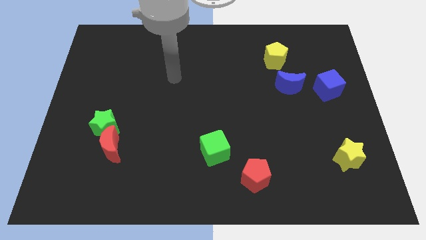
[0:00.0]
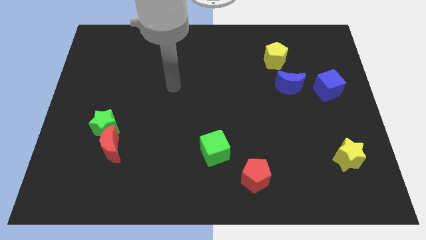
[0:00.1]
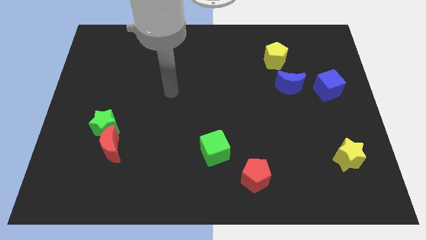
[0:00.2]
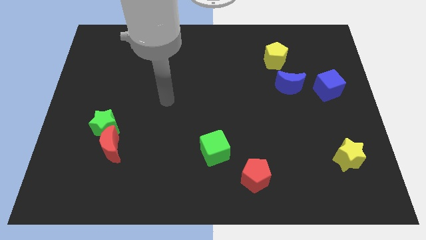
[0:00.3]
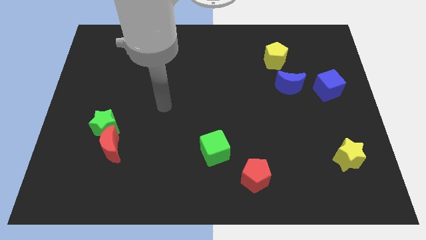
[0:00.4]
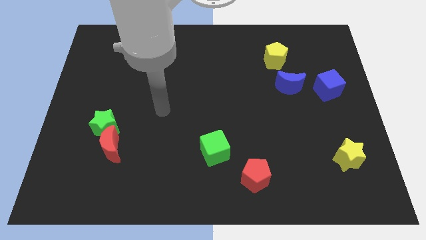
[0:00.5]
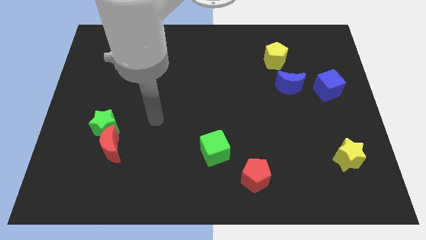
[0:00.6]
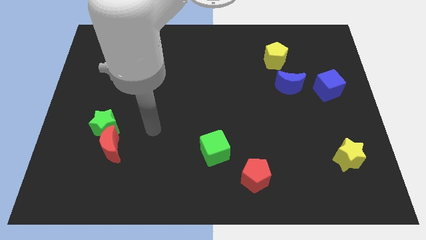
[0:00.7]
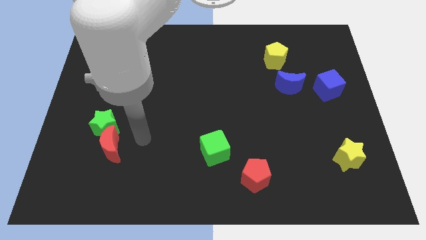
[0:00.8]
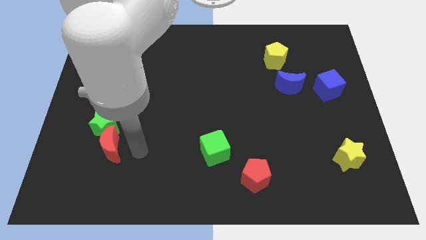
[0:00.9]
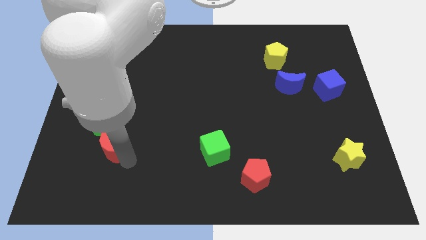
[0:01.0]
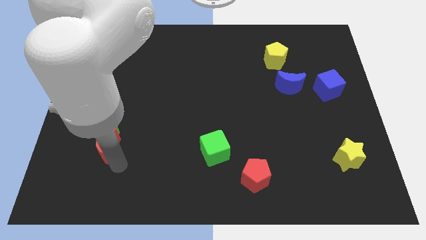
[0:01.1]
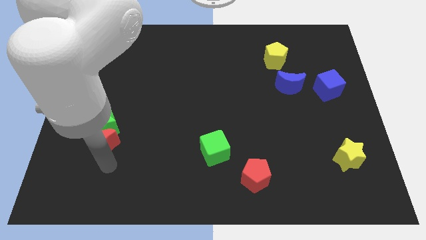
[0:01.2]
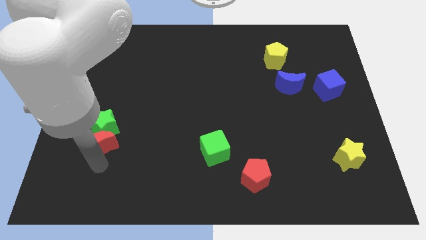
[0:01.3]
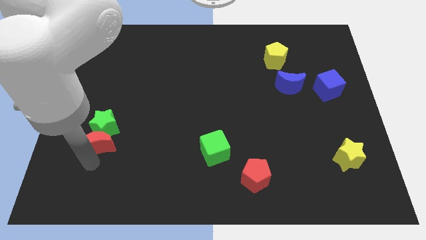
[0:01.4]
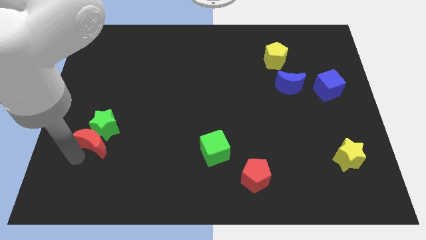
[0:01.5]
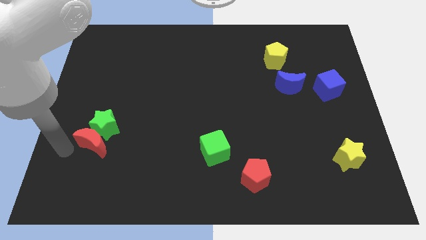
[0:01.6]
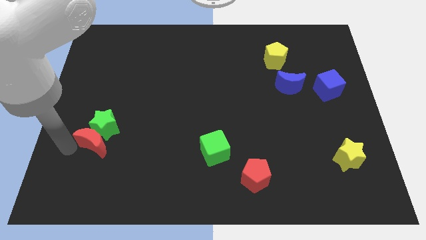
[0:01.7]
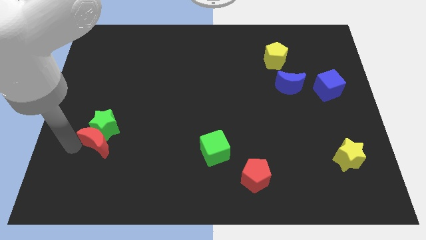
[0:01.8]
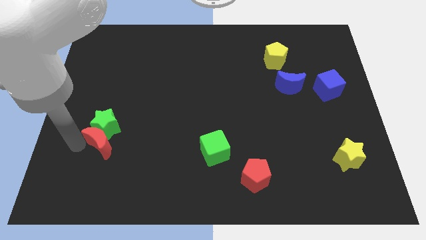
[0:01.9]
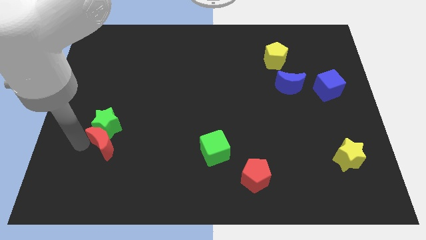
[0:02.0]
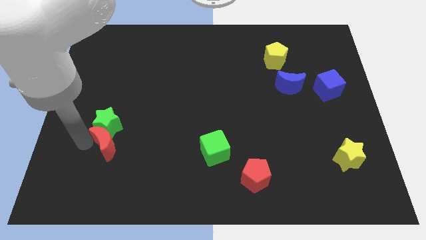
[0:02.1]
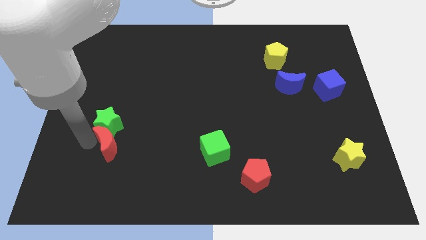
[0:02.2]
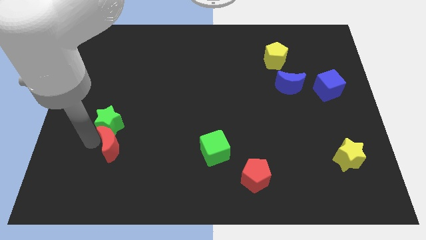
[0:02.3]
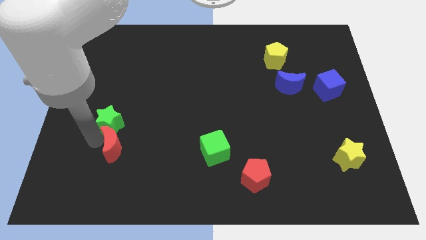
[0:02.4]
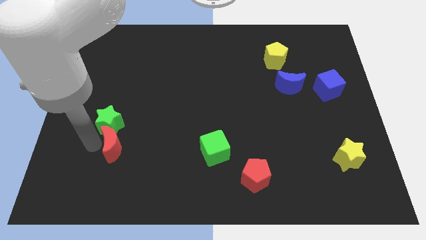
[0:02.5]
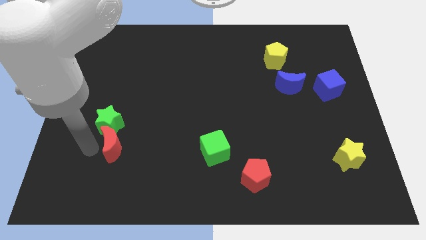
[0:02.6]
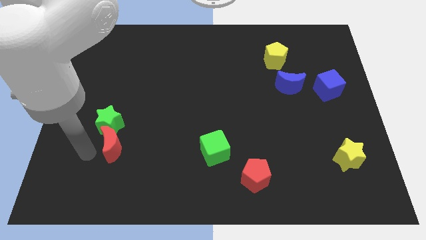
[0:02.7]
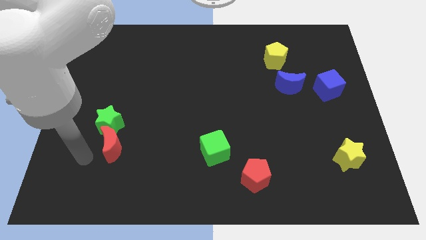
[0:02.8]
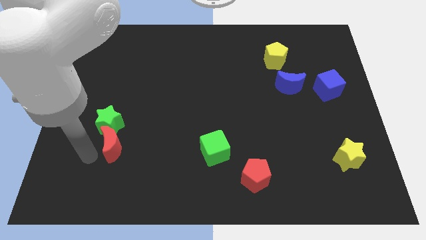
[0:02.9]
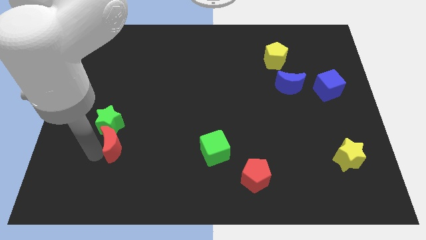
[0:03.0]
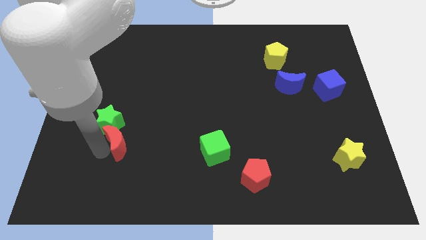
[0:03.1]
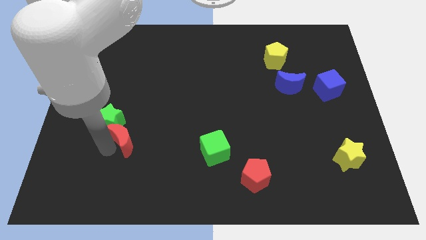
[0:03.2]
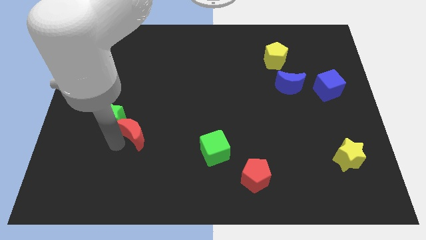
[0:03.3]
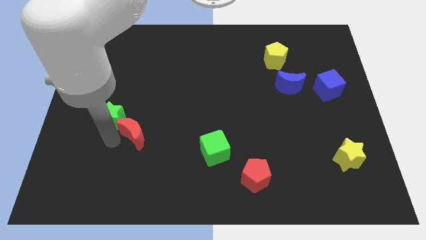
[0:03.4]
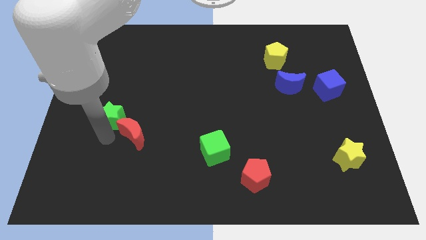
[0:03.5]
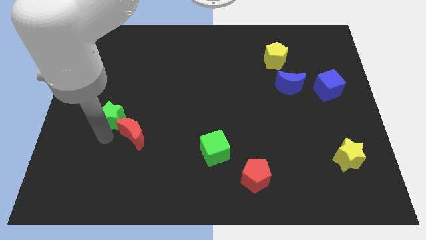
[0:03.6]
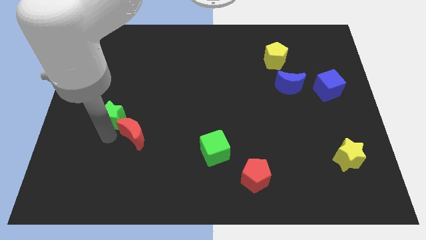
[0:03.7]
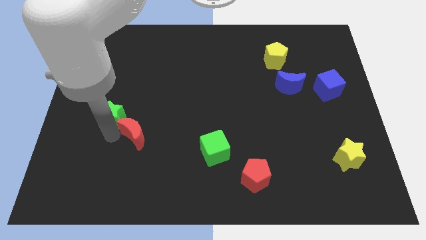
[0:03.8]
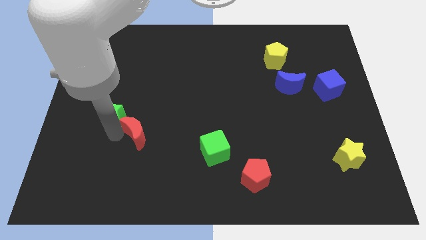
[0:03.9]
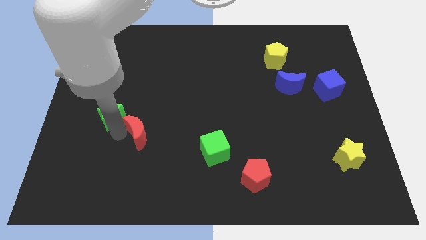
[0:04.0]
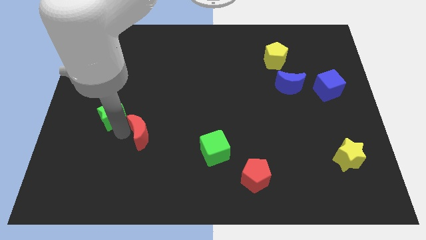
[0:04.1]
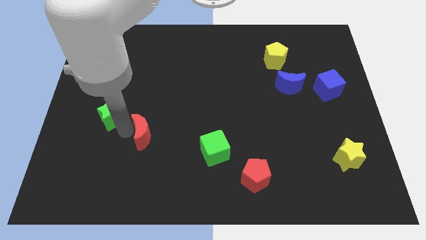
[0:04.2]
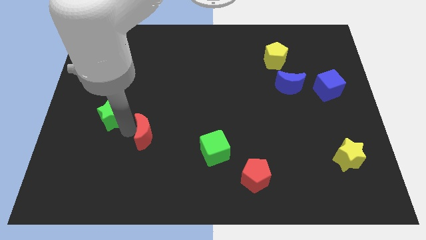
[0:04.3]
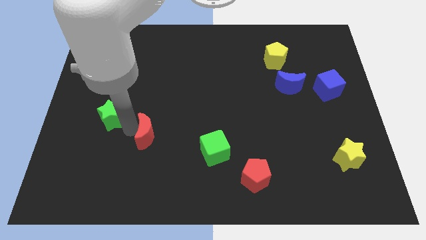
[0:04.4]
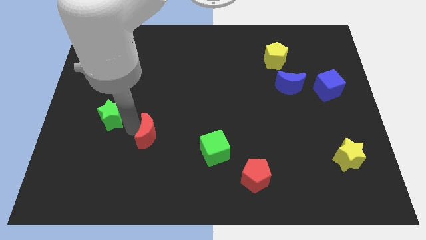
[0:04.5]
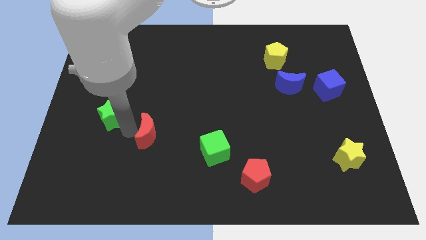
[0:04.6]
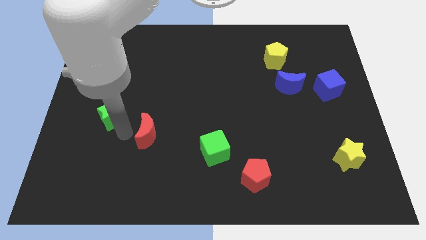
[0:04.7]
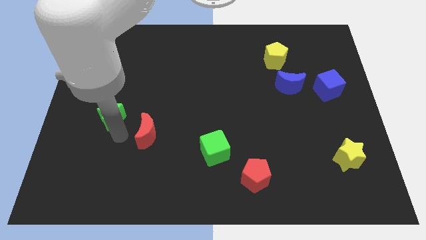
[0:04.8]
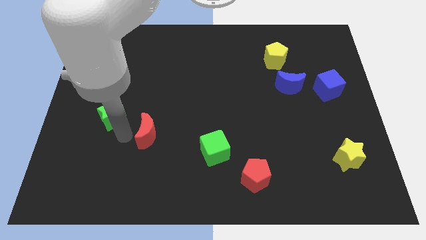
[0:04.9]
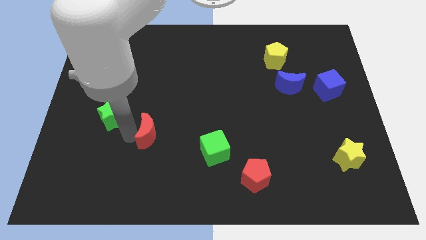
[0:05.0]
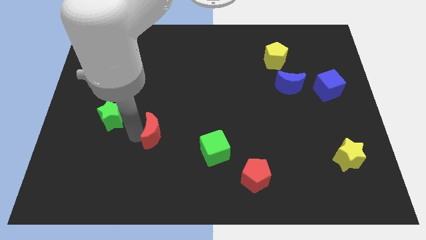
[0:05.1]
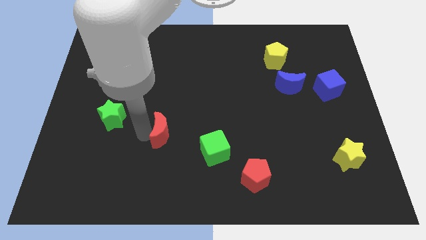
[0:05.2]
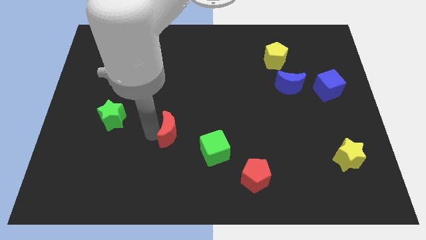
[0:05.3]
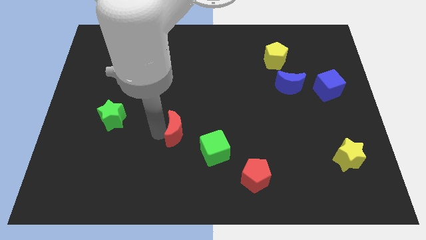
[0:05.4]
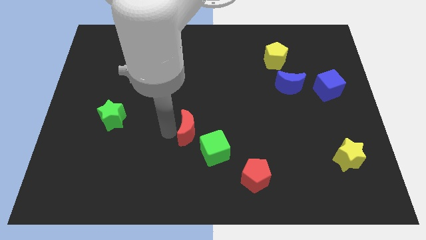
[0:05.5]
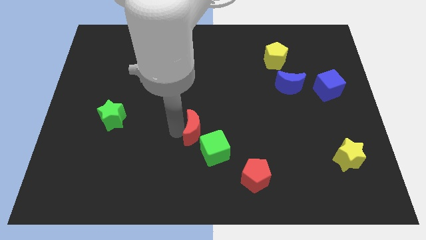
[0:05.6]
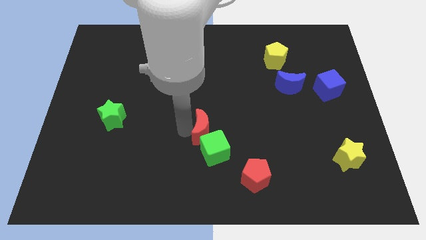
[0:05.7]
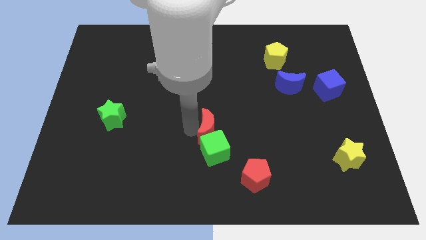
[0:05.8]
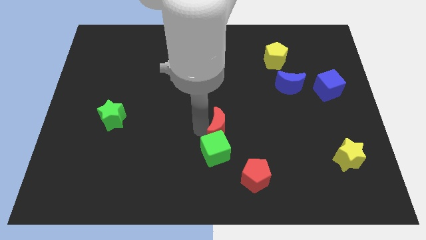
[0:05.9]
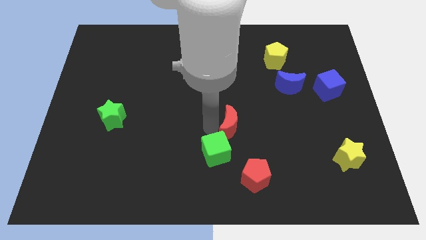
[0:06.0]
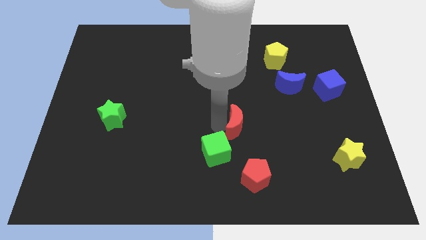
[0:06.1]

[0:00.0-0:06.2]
move the red moon to the top side of the red pentagon
